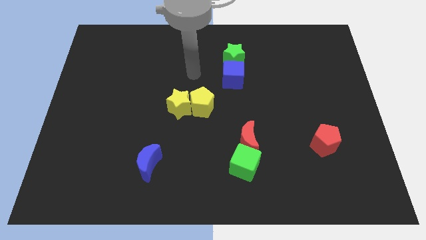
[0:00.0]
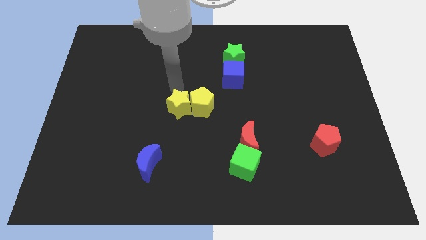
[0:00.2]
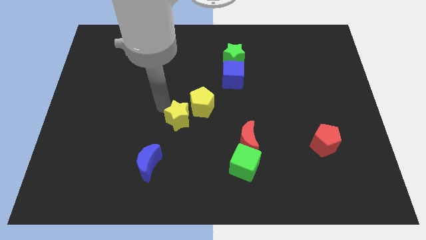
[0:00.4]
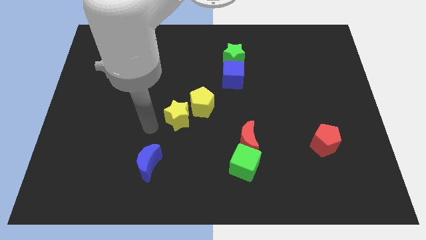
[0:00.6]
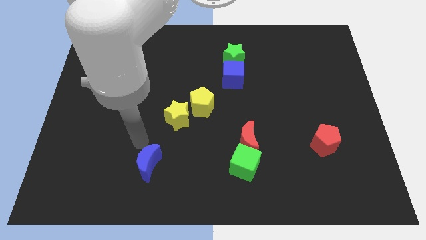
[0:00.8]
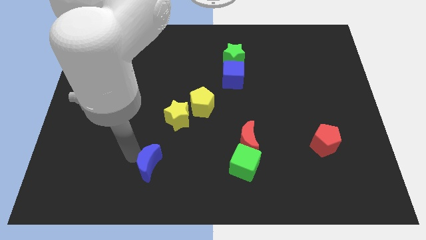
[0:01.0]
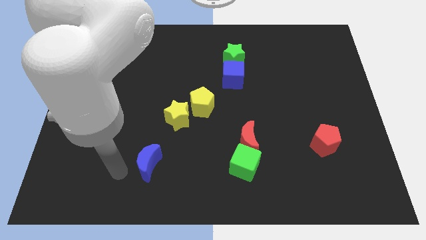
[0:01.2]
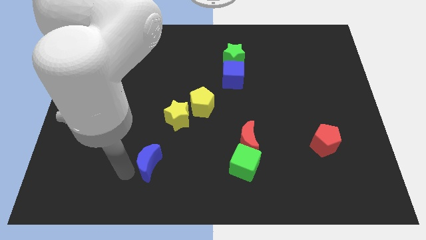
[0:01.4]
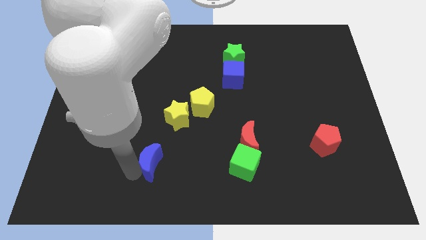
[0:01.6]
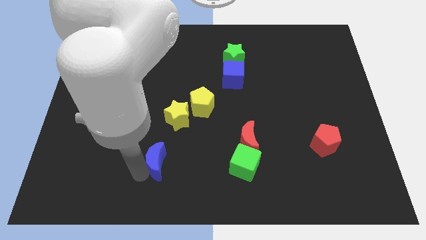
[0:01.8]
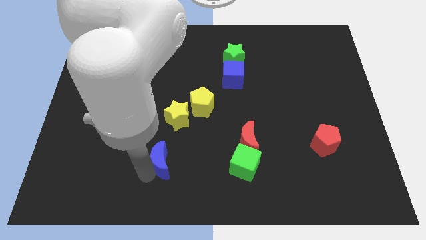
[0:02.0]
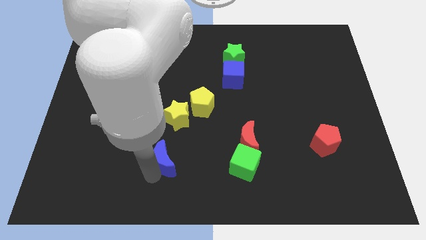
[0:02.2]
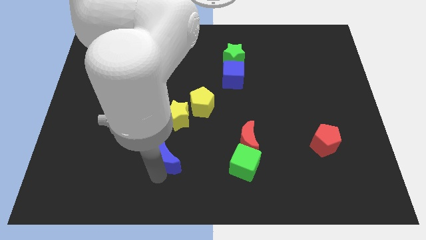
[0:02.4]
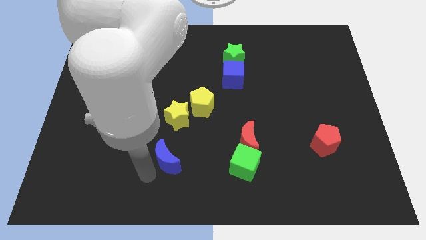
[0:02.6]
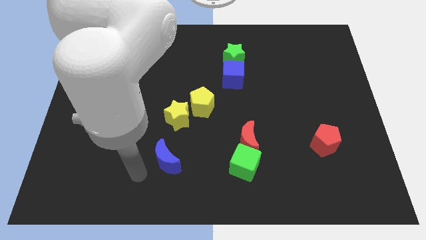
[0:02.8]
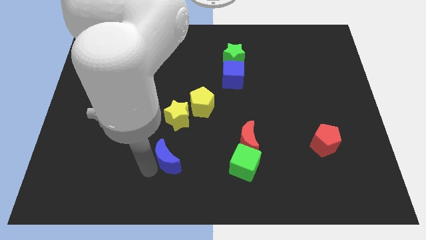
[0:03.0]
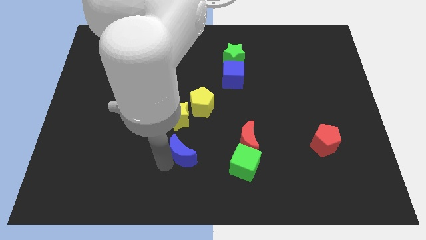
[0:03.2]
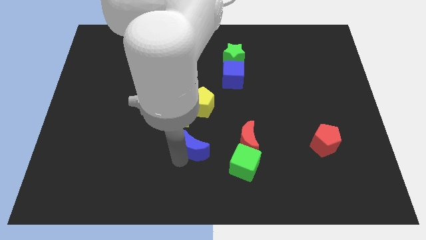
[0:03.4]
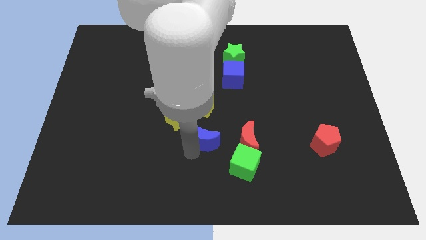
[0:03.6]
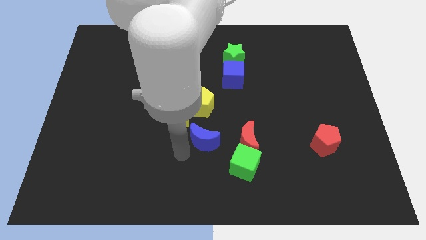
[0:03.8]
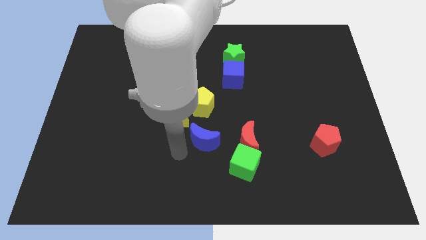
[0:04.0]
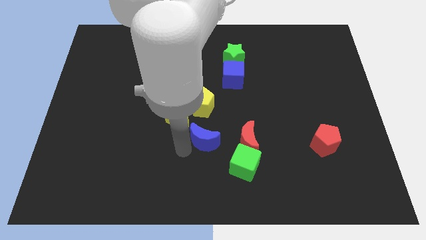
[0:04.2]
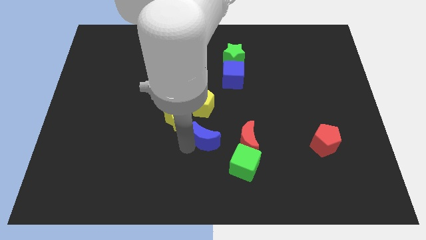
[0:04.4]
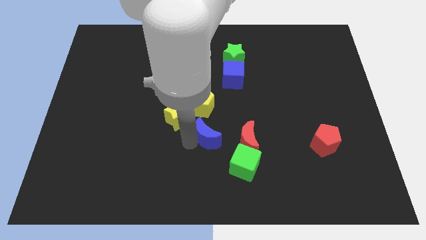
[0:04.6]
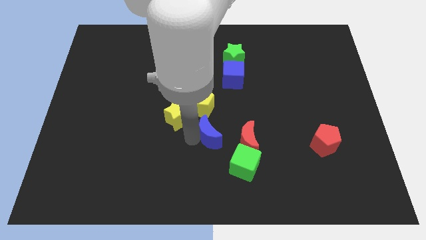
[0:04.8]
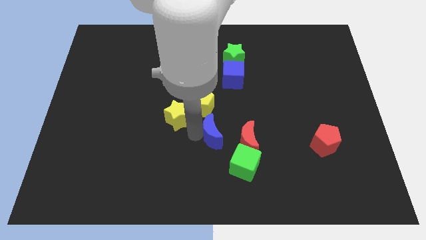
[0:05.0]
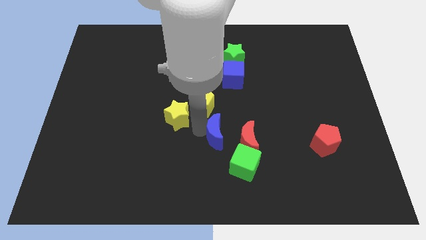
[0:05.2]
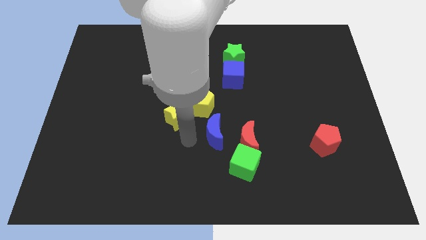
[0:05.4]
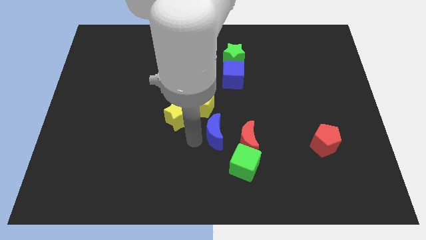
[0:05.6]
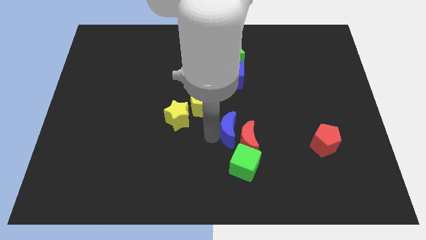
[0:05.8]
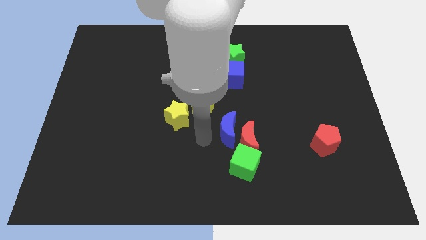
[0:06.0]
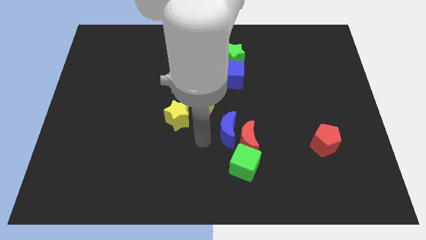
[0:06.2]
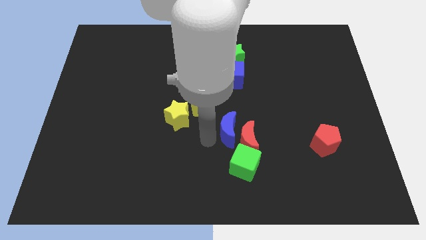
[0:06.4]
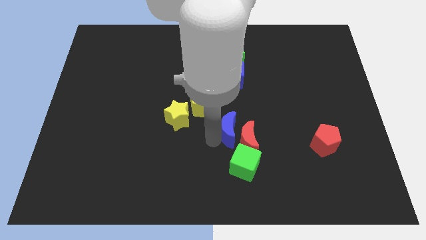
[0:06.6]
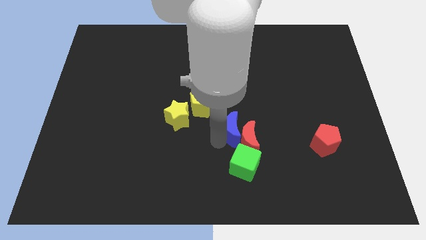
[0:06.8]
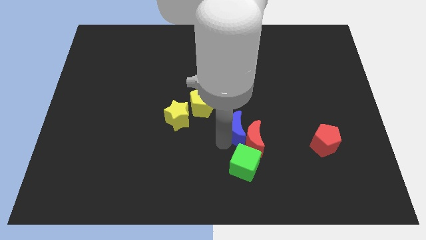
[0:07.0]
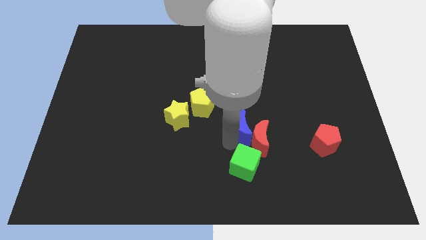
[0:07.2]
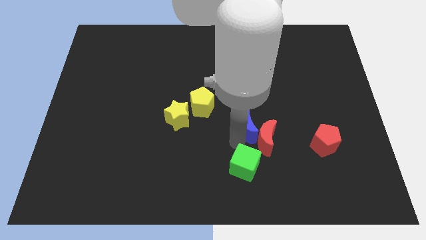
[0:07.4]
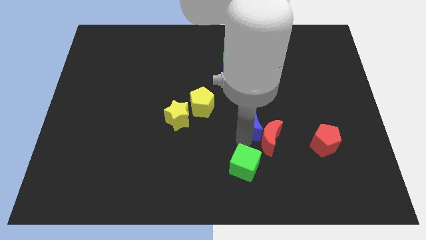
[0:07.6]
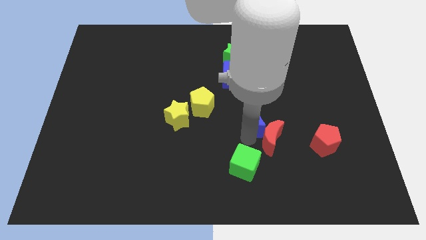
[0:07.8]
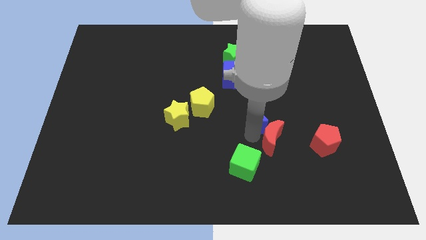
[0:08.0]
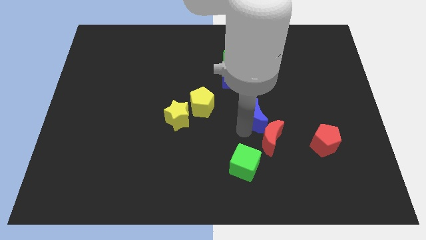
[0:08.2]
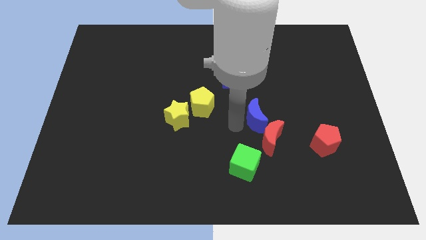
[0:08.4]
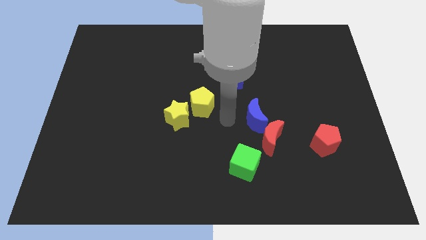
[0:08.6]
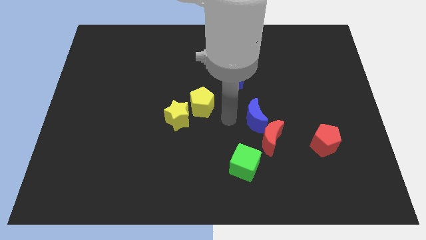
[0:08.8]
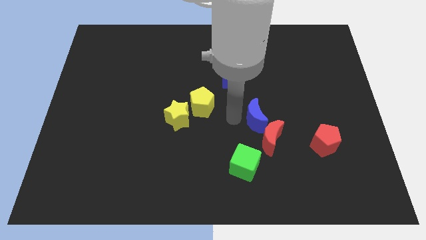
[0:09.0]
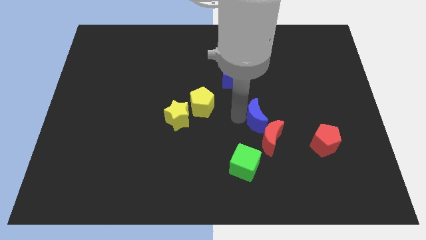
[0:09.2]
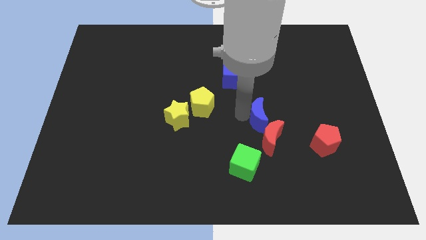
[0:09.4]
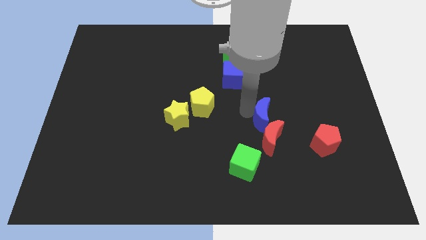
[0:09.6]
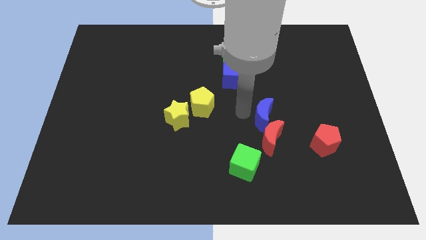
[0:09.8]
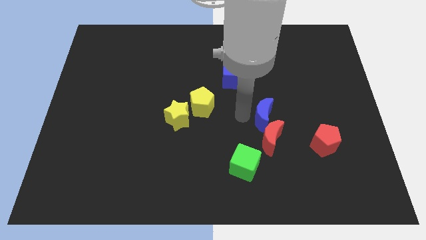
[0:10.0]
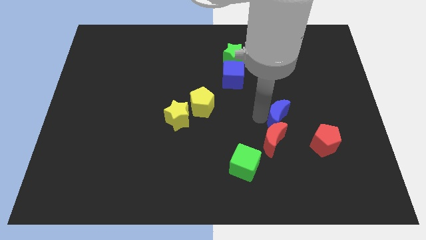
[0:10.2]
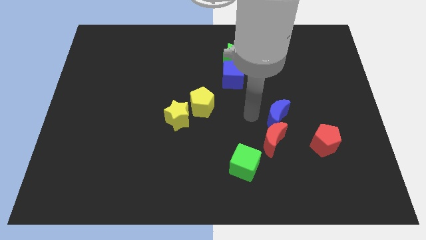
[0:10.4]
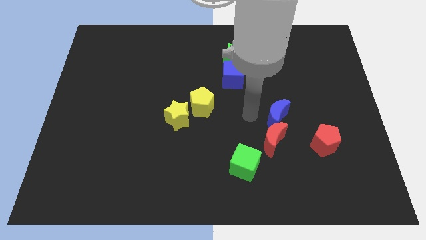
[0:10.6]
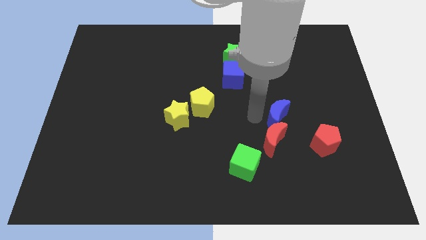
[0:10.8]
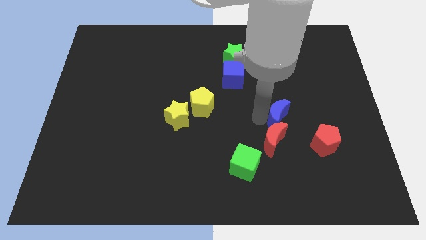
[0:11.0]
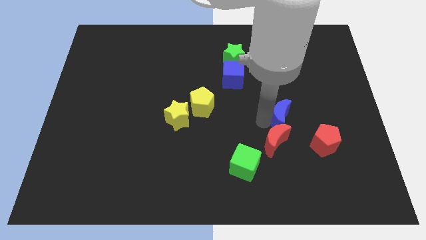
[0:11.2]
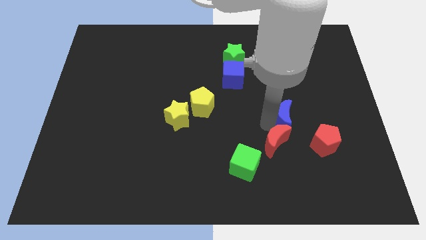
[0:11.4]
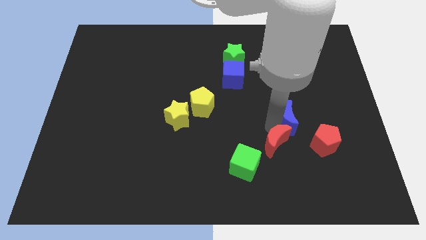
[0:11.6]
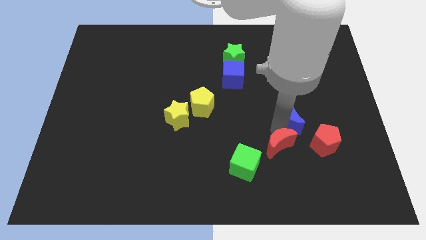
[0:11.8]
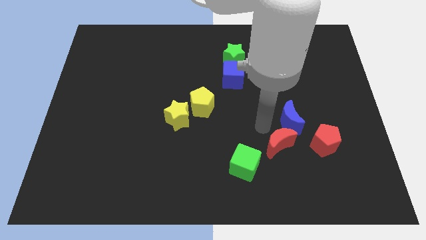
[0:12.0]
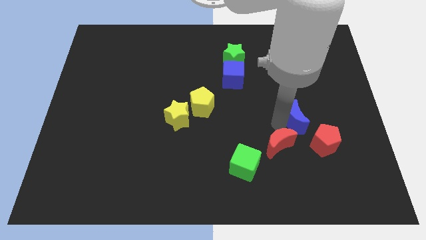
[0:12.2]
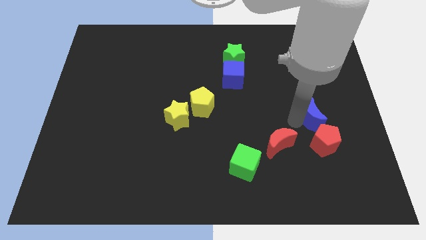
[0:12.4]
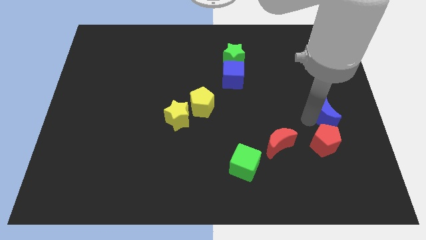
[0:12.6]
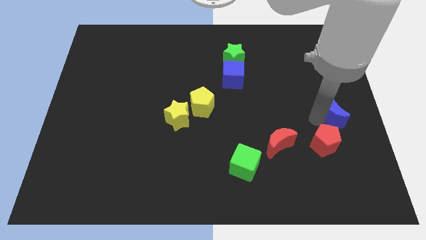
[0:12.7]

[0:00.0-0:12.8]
slide the blue moon to the center right
